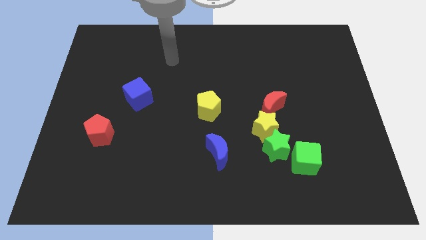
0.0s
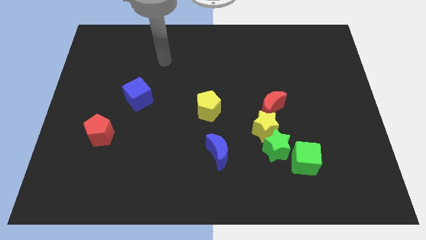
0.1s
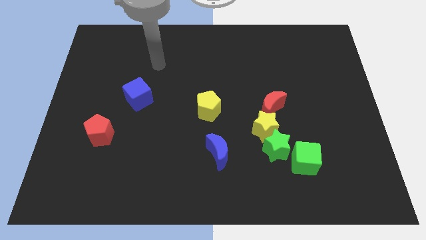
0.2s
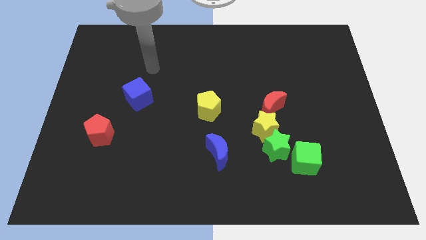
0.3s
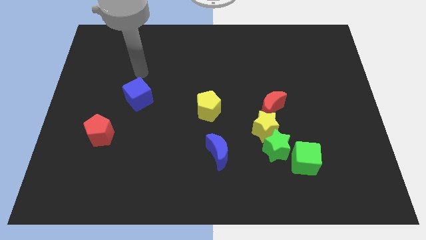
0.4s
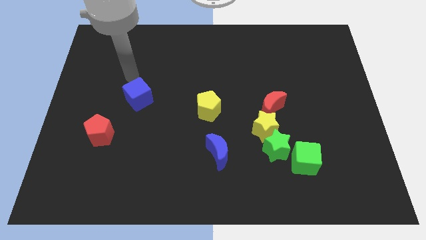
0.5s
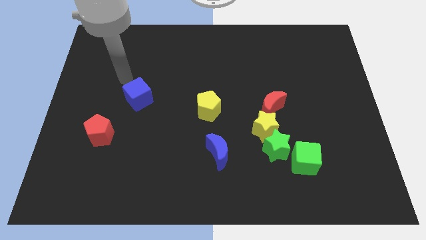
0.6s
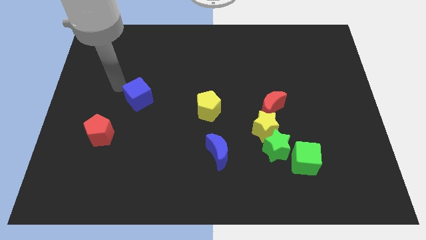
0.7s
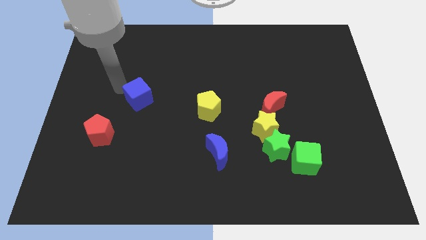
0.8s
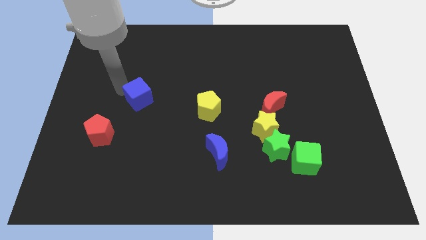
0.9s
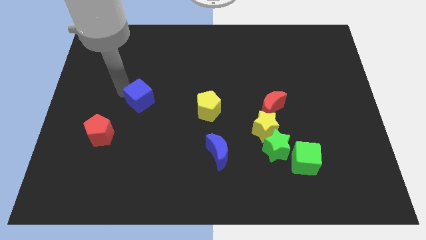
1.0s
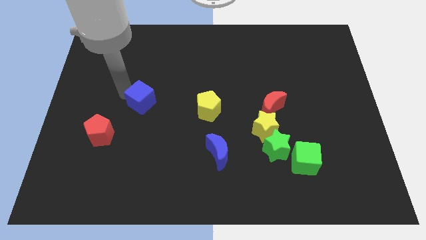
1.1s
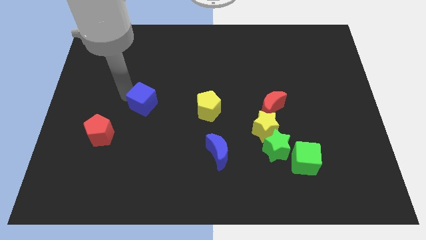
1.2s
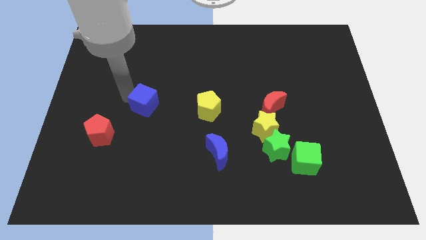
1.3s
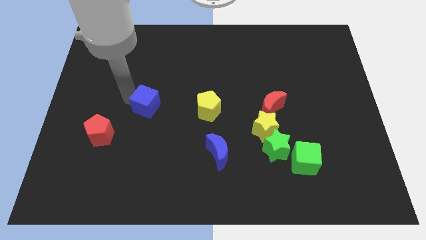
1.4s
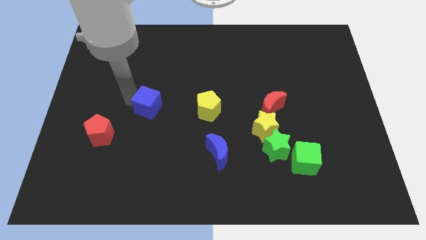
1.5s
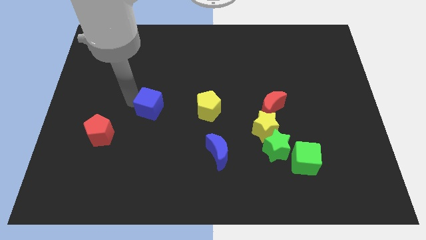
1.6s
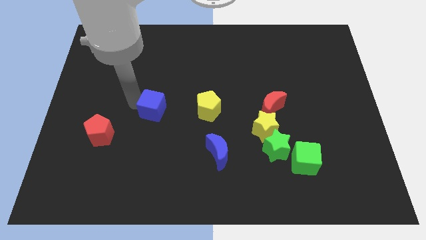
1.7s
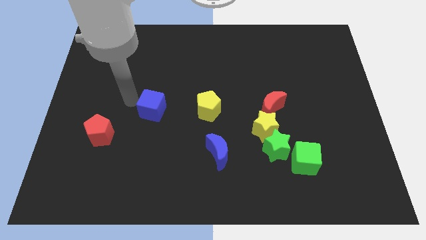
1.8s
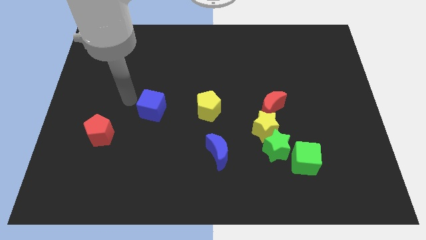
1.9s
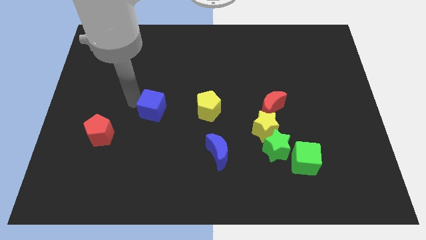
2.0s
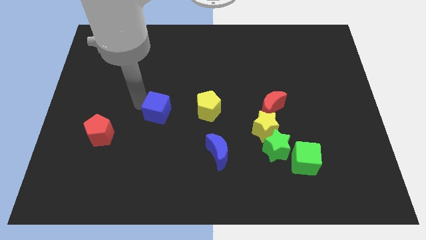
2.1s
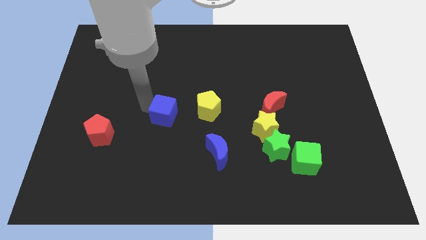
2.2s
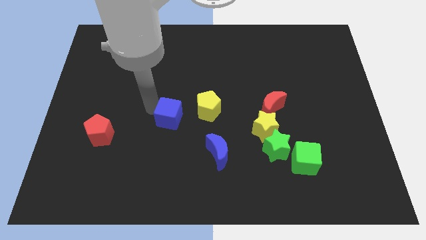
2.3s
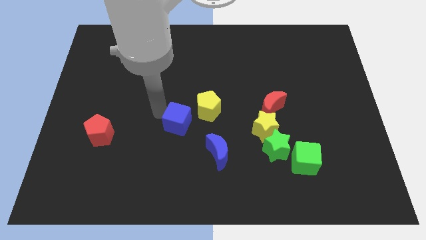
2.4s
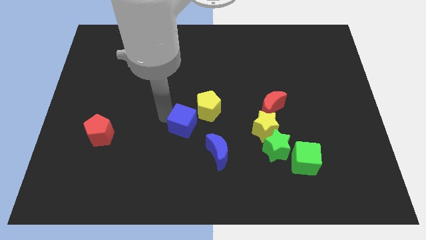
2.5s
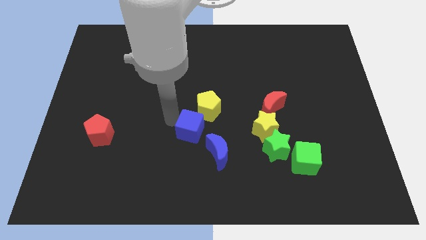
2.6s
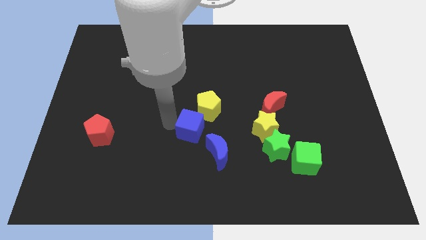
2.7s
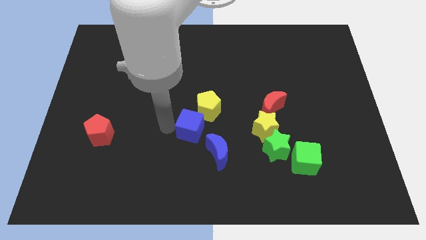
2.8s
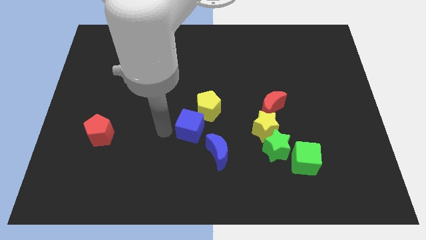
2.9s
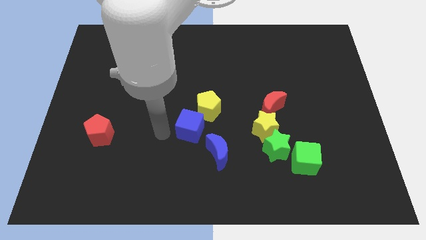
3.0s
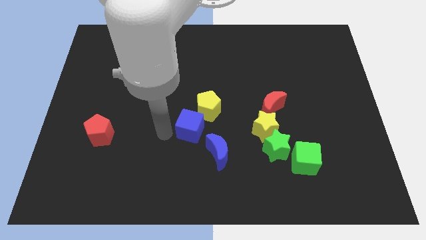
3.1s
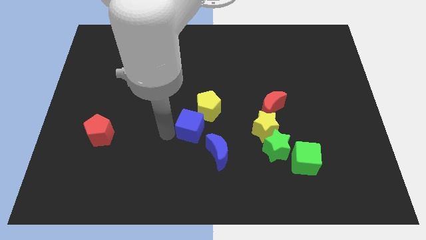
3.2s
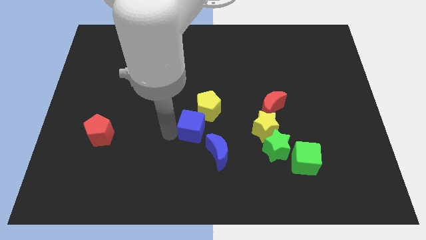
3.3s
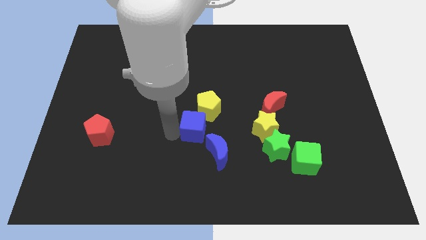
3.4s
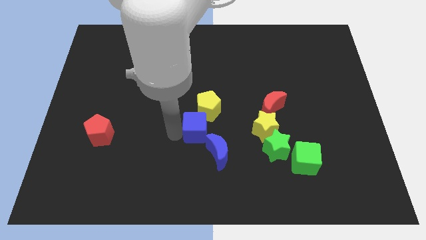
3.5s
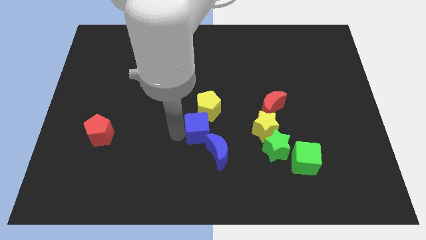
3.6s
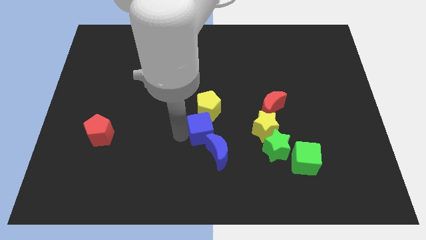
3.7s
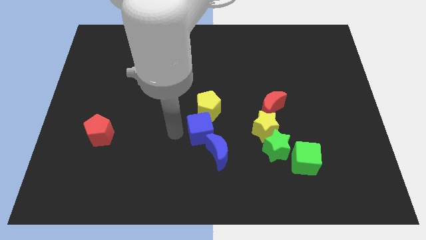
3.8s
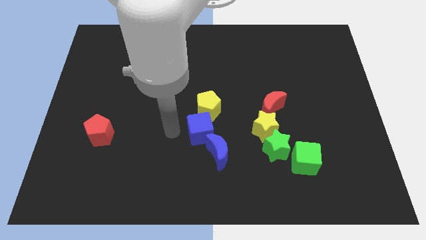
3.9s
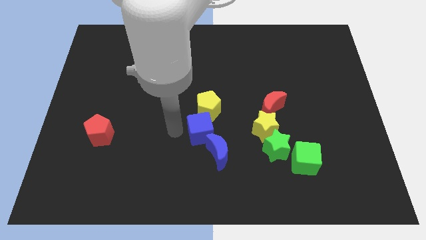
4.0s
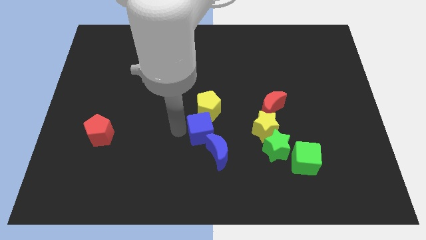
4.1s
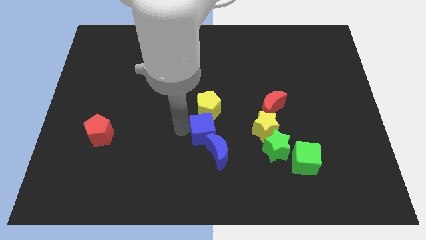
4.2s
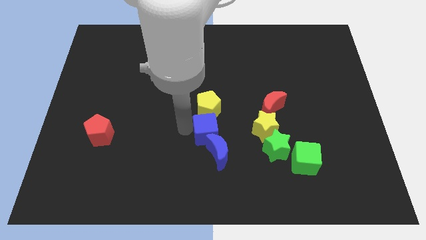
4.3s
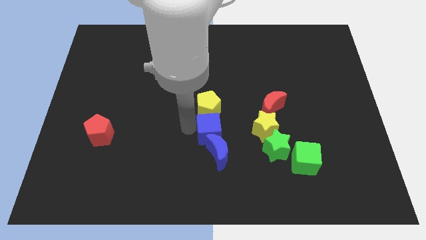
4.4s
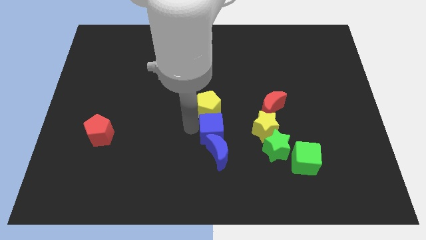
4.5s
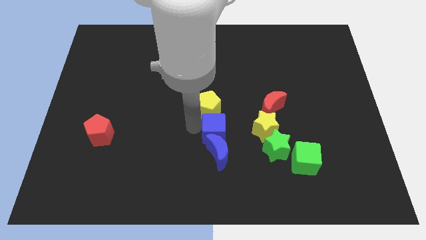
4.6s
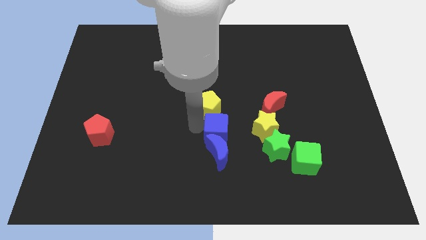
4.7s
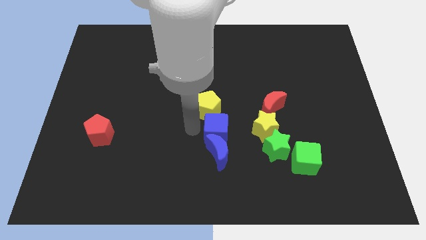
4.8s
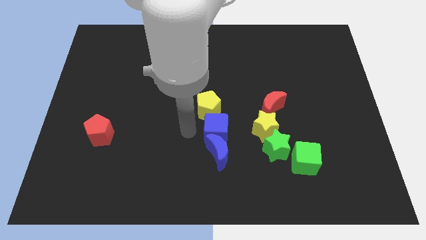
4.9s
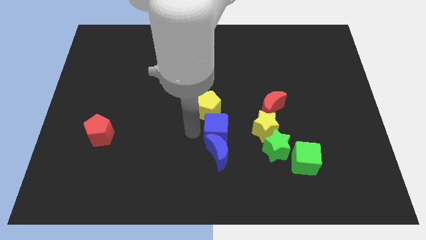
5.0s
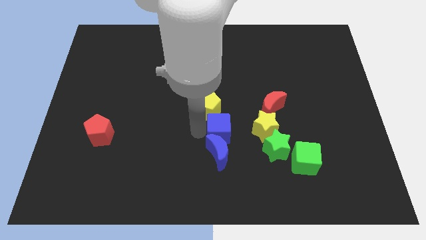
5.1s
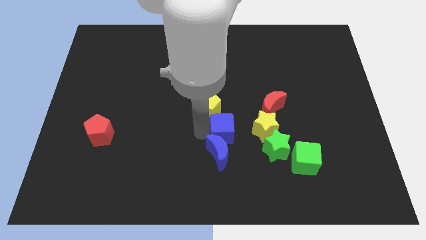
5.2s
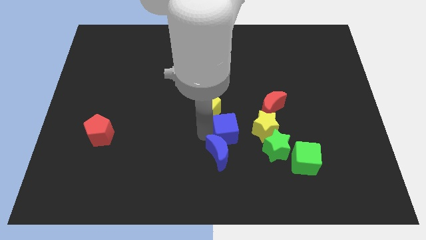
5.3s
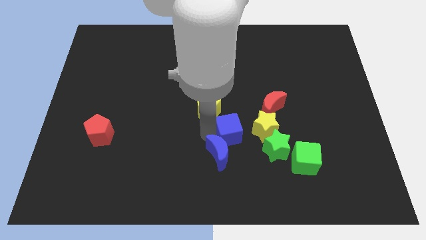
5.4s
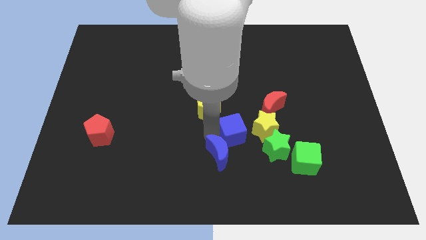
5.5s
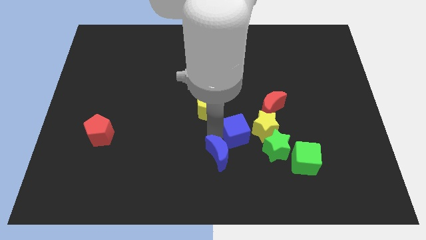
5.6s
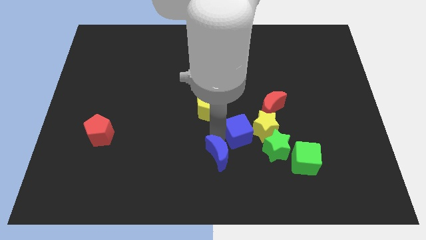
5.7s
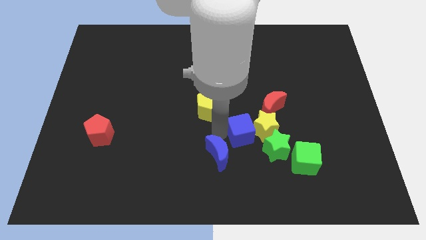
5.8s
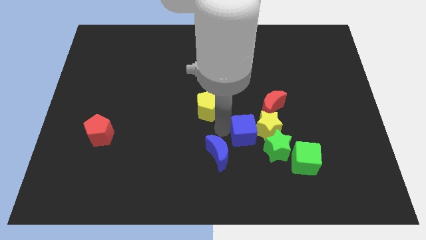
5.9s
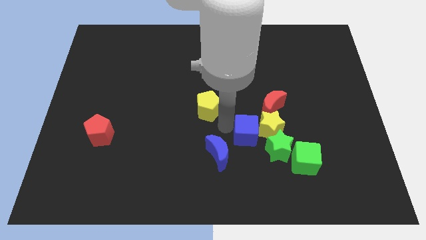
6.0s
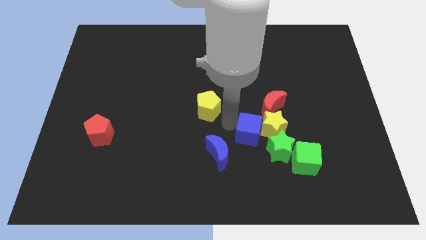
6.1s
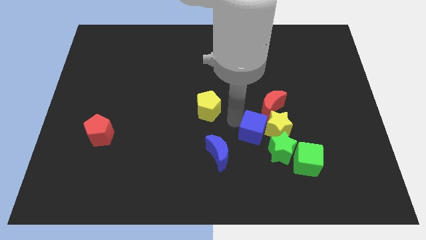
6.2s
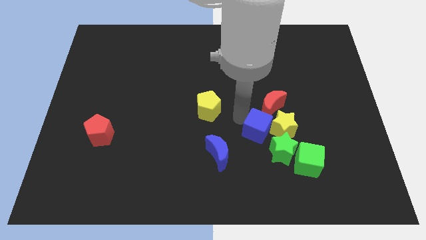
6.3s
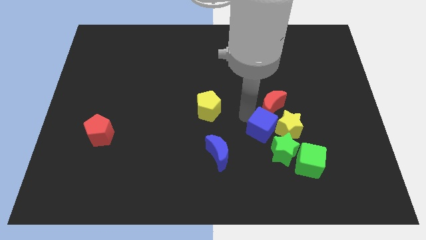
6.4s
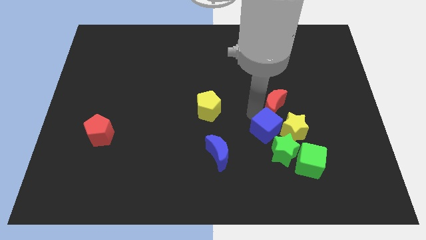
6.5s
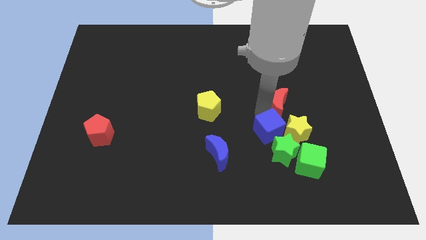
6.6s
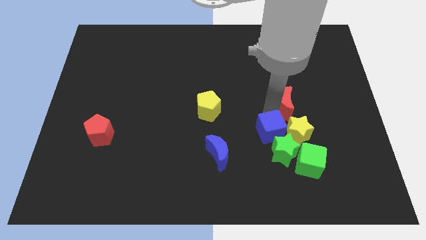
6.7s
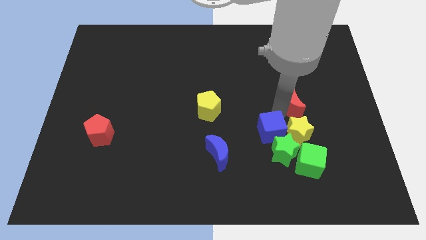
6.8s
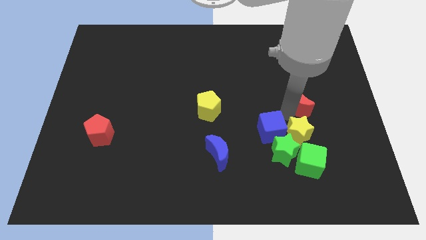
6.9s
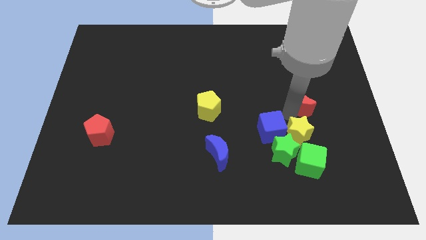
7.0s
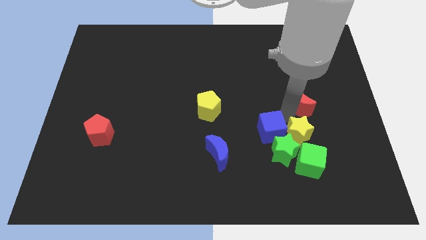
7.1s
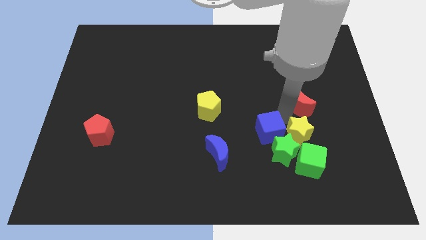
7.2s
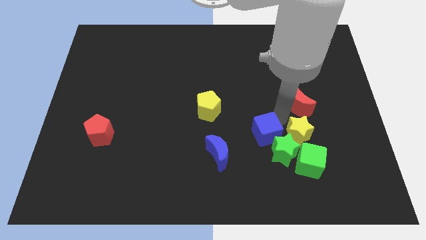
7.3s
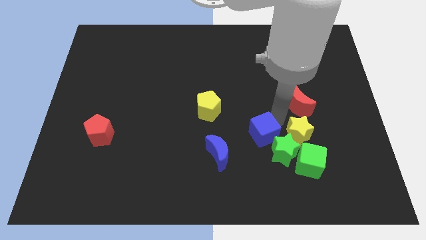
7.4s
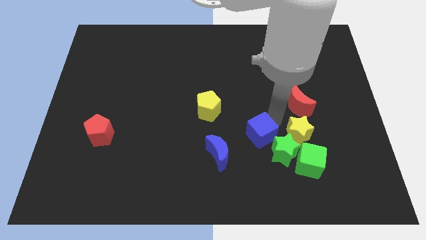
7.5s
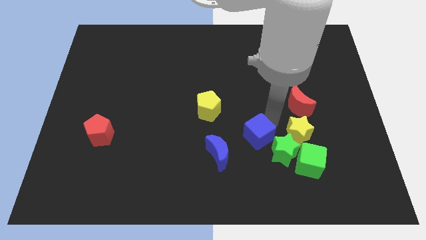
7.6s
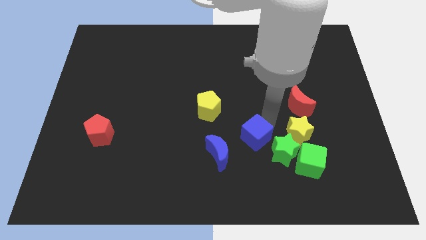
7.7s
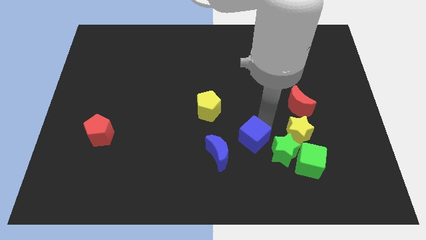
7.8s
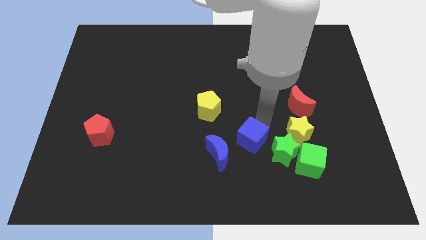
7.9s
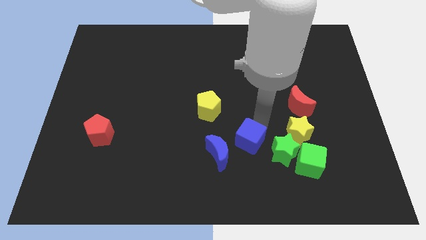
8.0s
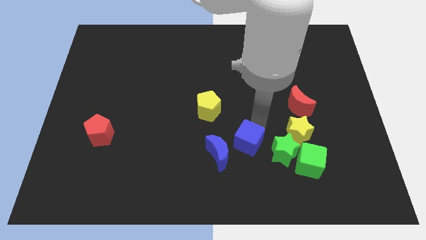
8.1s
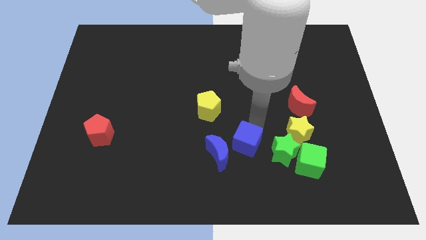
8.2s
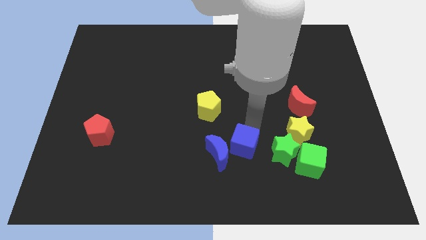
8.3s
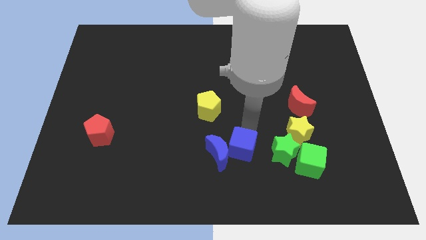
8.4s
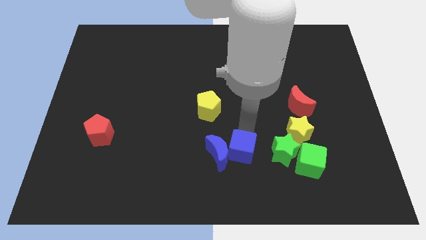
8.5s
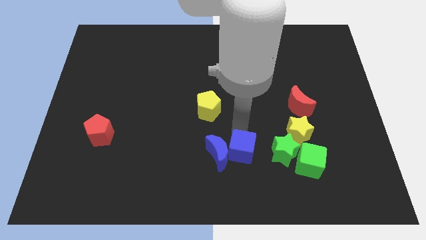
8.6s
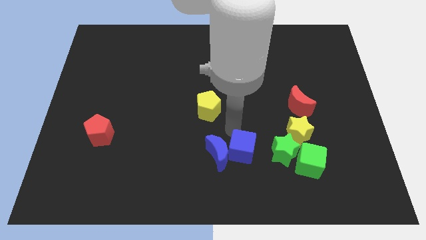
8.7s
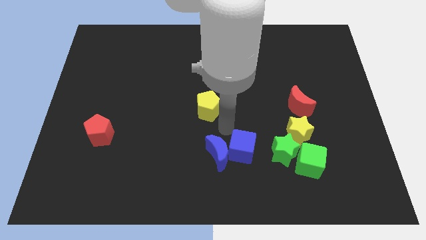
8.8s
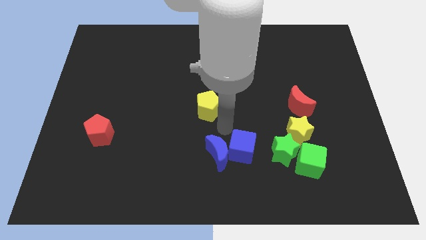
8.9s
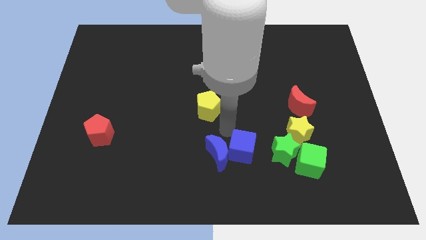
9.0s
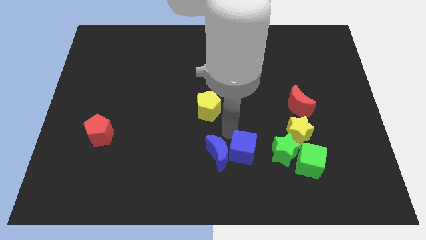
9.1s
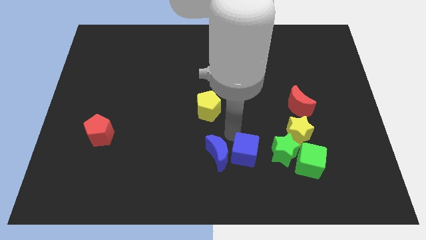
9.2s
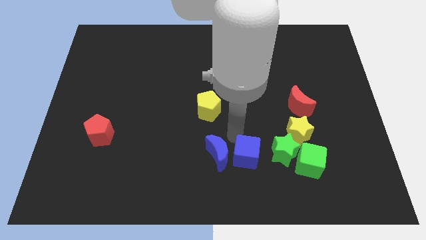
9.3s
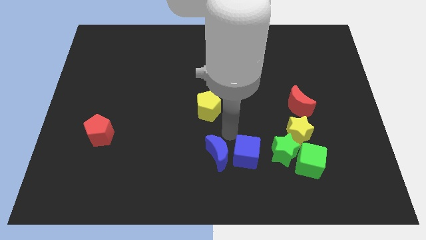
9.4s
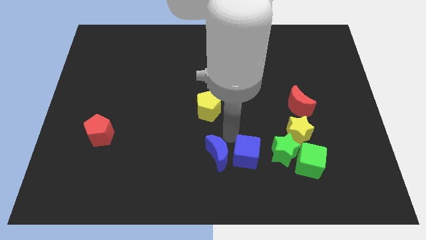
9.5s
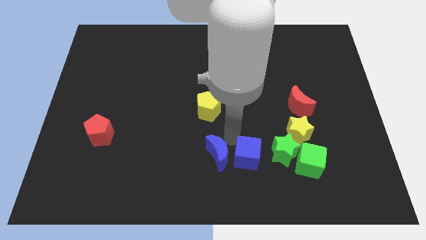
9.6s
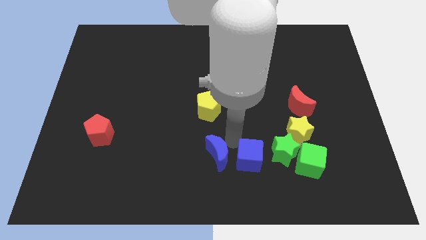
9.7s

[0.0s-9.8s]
move the blue cube diagonally down and to the left of the green star
